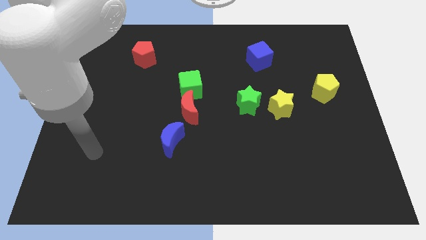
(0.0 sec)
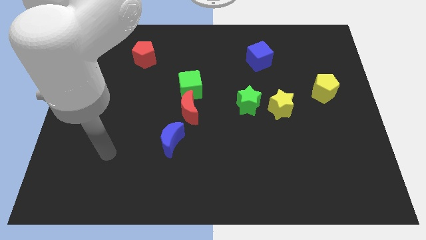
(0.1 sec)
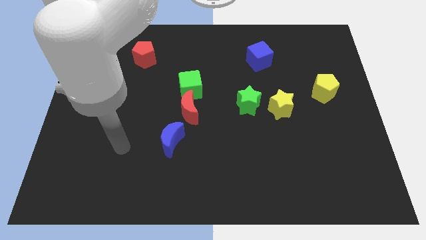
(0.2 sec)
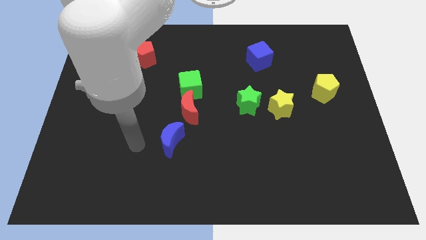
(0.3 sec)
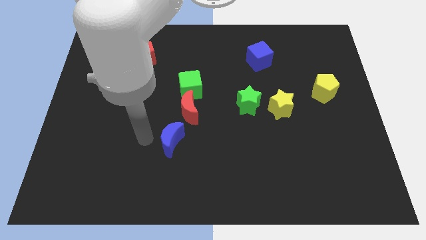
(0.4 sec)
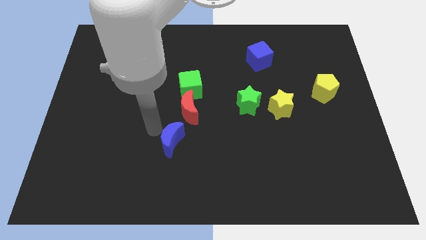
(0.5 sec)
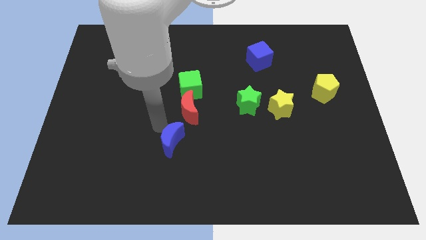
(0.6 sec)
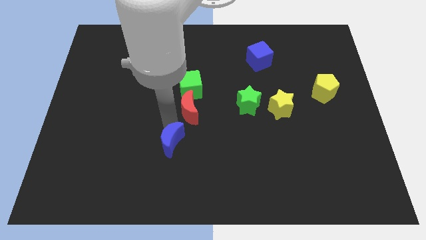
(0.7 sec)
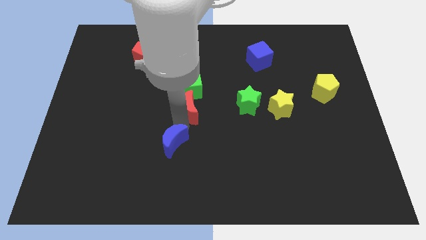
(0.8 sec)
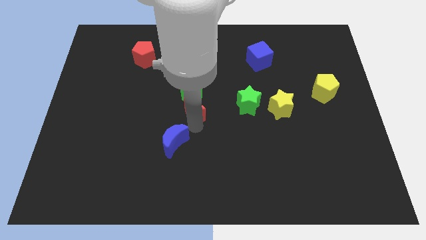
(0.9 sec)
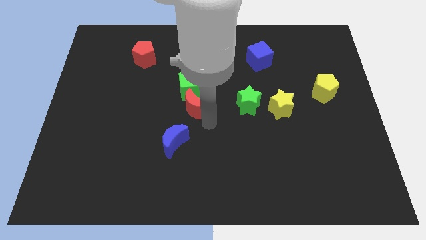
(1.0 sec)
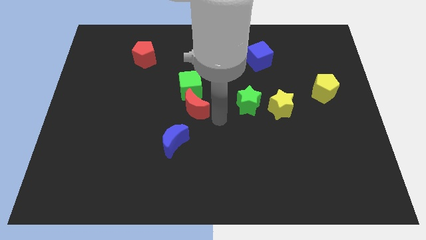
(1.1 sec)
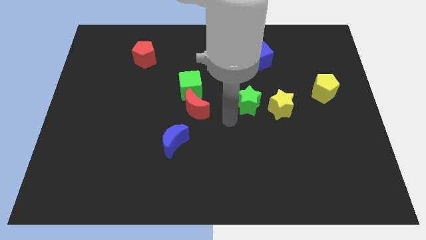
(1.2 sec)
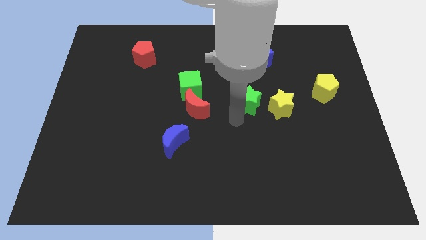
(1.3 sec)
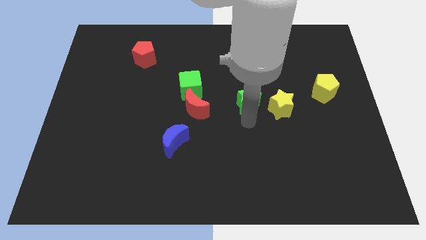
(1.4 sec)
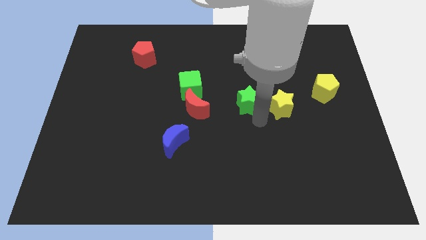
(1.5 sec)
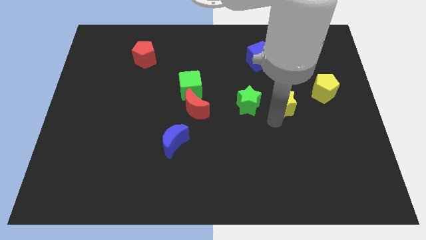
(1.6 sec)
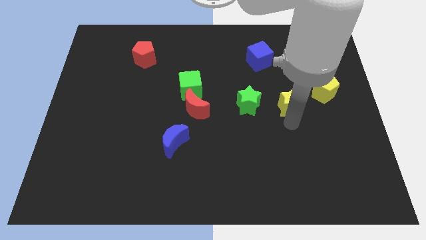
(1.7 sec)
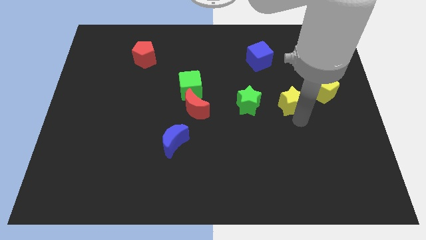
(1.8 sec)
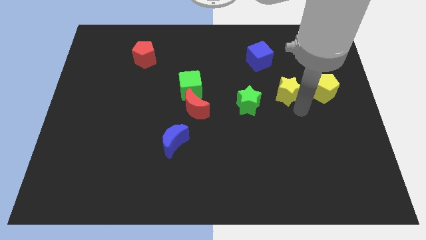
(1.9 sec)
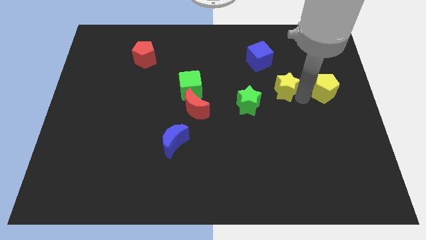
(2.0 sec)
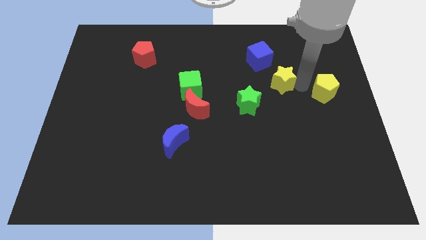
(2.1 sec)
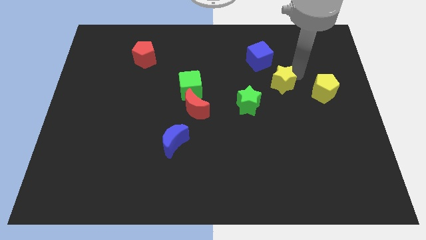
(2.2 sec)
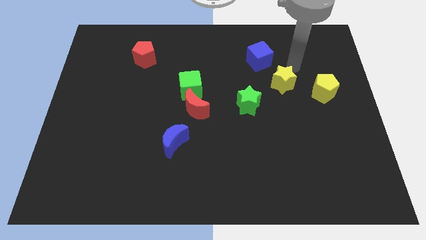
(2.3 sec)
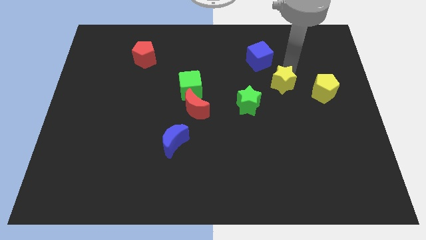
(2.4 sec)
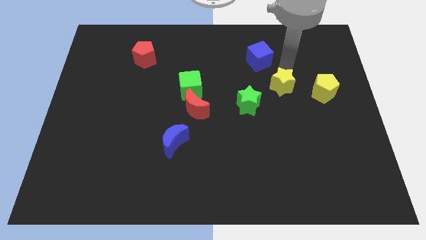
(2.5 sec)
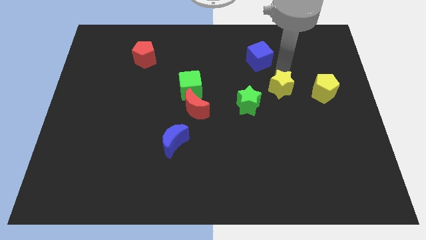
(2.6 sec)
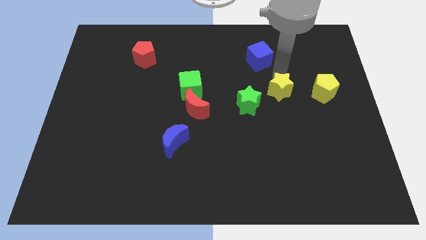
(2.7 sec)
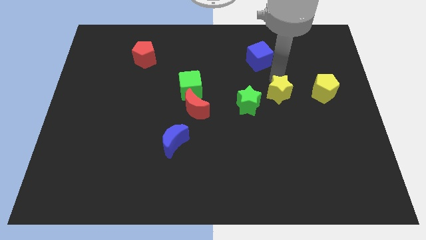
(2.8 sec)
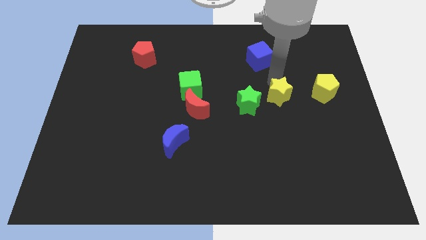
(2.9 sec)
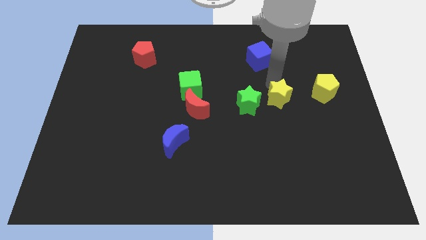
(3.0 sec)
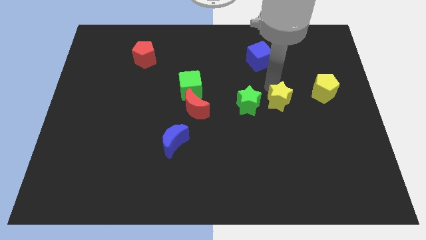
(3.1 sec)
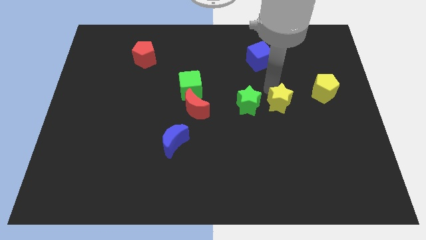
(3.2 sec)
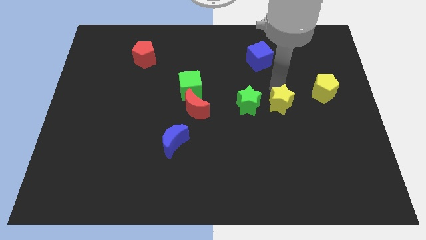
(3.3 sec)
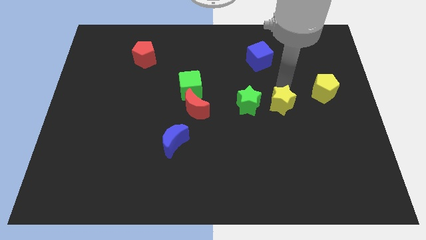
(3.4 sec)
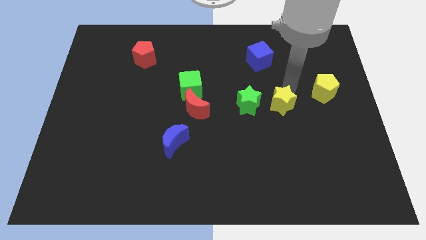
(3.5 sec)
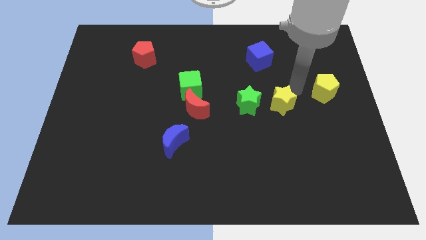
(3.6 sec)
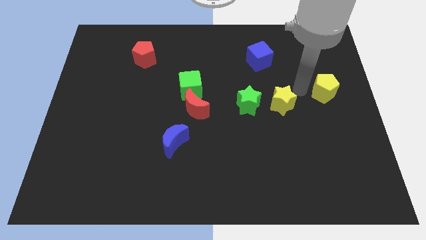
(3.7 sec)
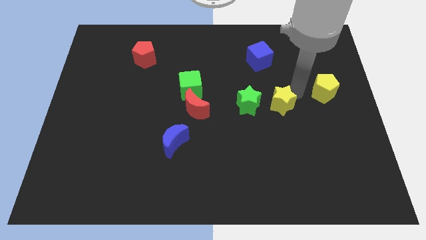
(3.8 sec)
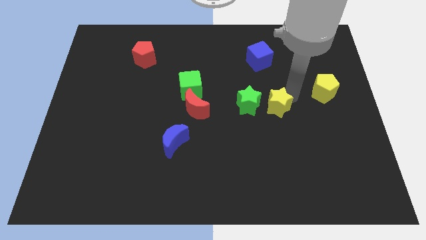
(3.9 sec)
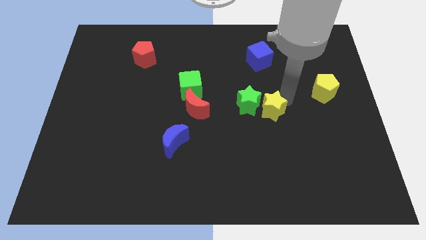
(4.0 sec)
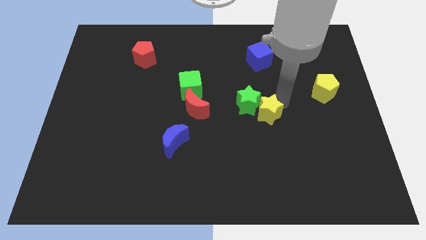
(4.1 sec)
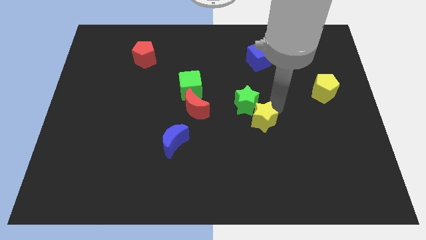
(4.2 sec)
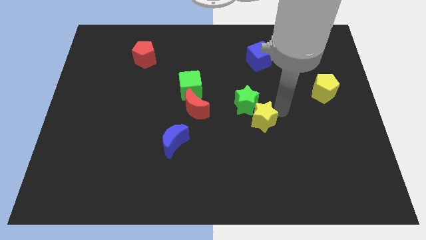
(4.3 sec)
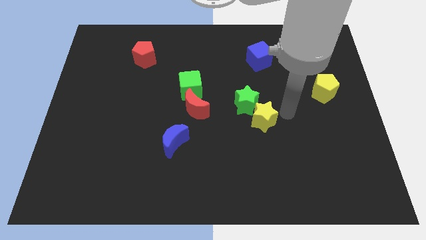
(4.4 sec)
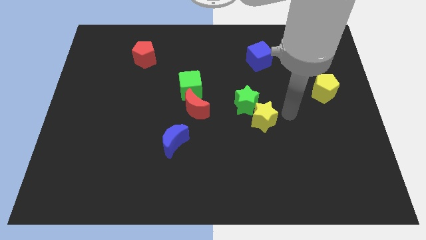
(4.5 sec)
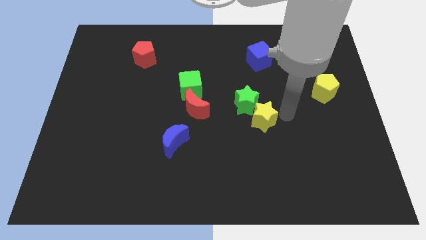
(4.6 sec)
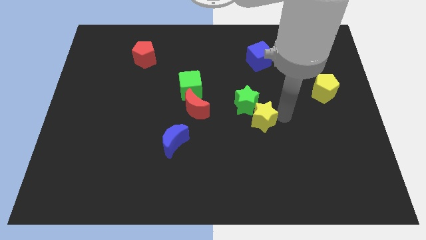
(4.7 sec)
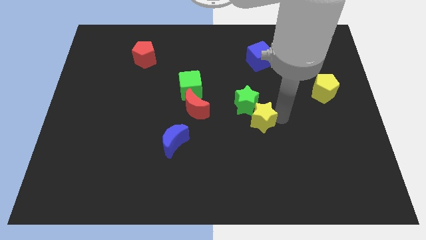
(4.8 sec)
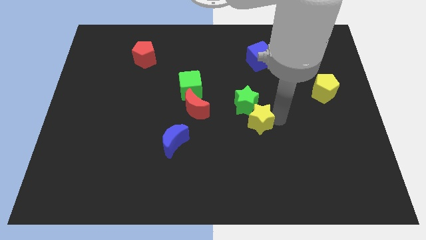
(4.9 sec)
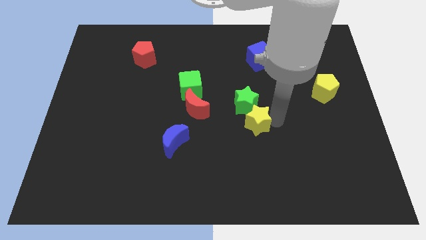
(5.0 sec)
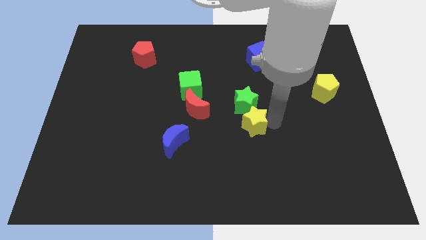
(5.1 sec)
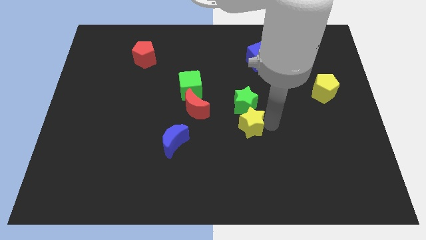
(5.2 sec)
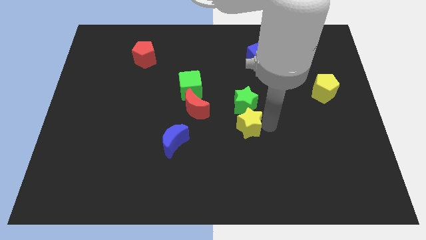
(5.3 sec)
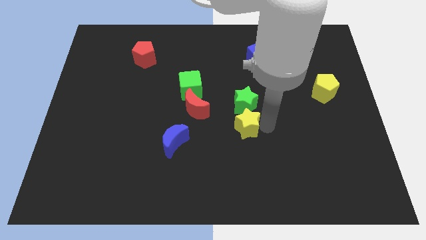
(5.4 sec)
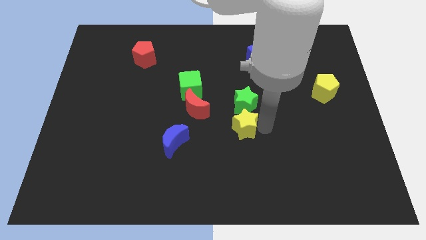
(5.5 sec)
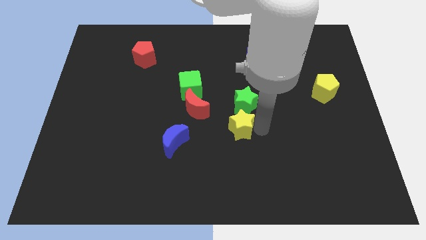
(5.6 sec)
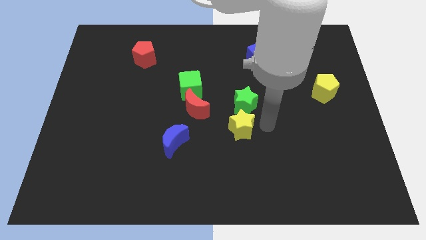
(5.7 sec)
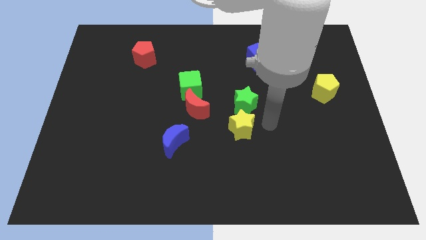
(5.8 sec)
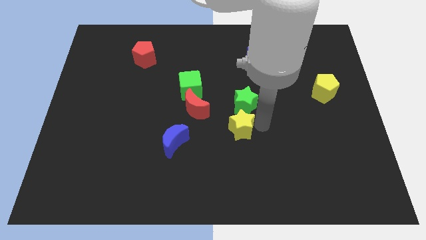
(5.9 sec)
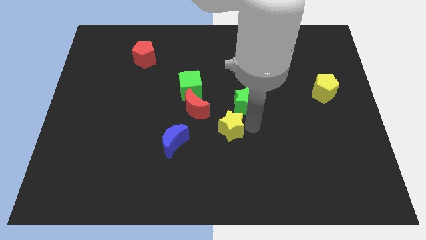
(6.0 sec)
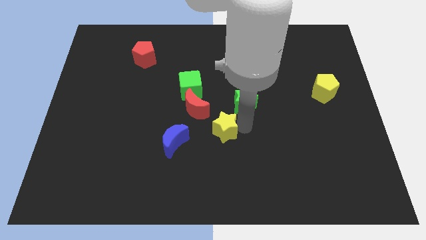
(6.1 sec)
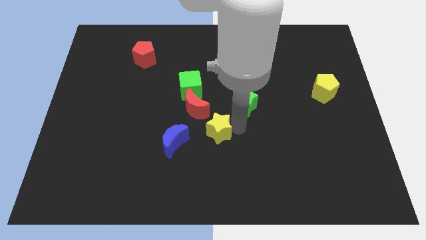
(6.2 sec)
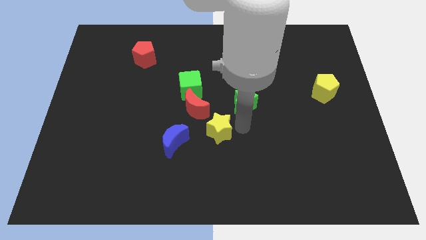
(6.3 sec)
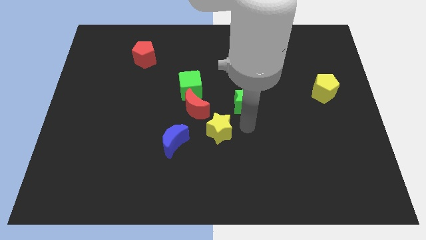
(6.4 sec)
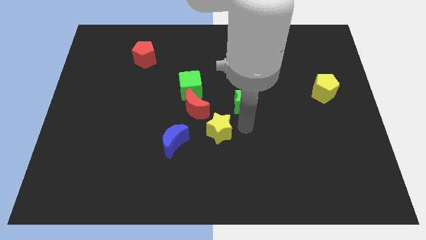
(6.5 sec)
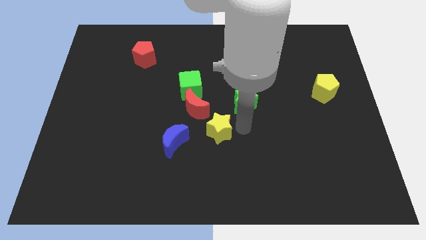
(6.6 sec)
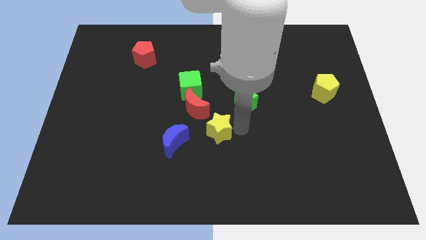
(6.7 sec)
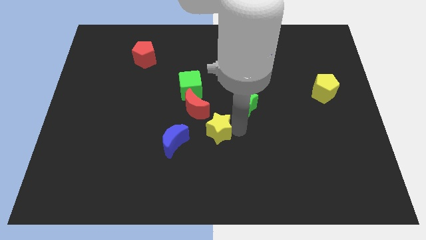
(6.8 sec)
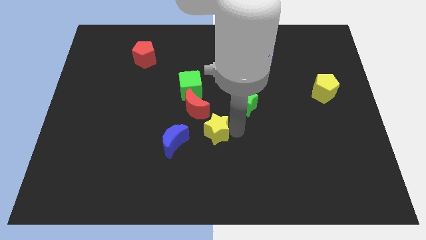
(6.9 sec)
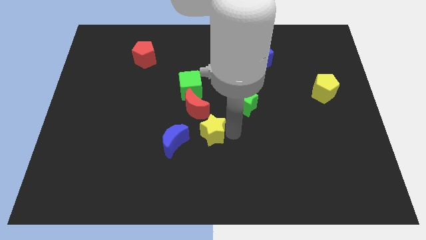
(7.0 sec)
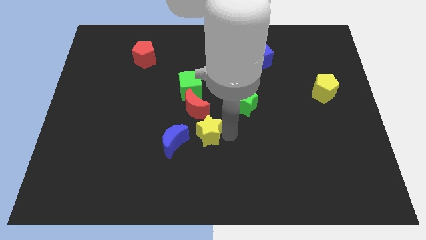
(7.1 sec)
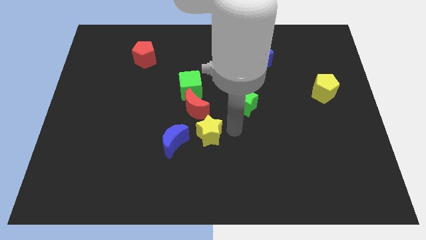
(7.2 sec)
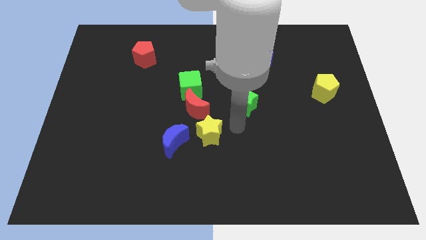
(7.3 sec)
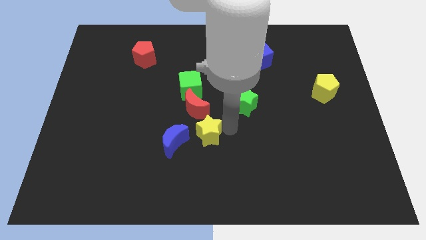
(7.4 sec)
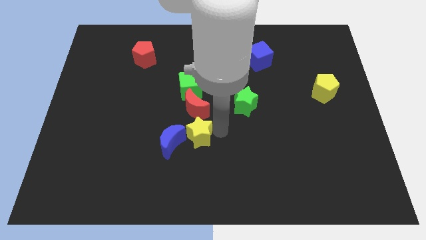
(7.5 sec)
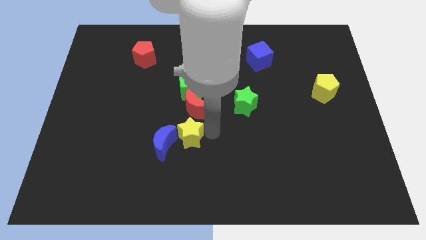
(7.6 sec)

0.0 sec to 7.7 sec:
slide the yellow star close to the blue moon
